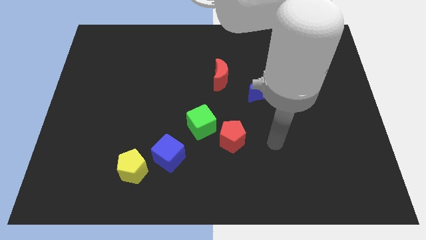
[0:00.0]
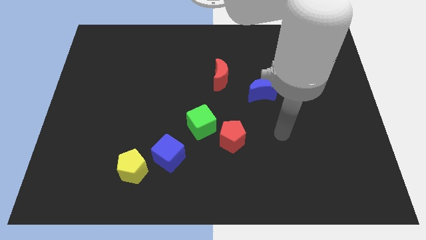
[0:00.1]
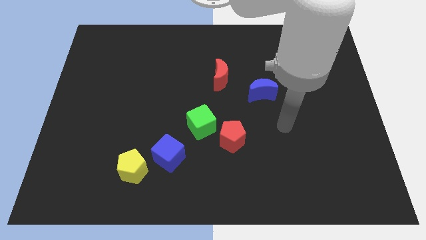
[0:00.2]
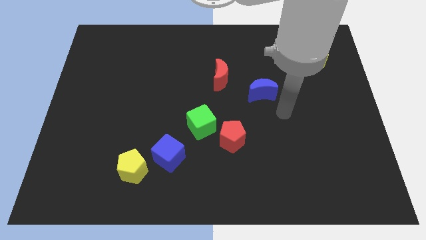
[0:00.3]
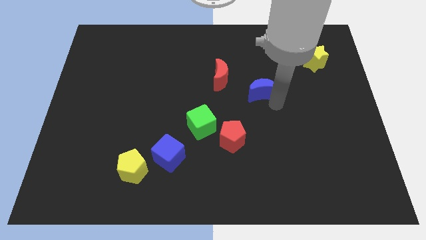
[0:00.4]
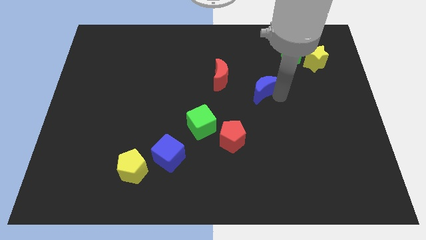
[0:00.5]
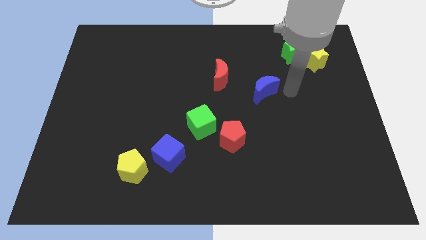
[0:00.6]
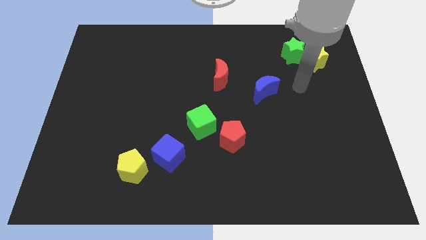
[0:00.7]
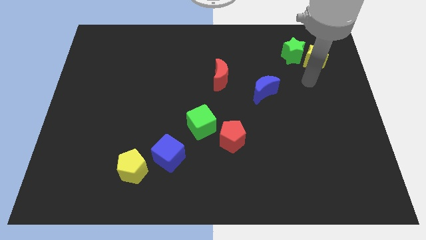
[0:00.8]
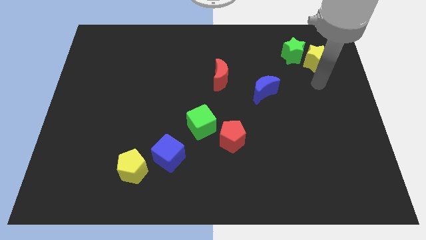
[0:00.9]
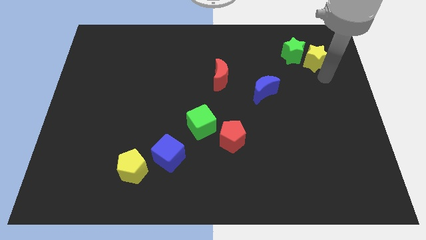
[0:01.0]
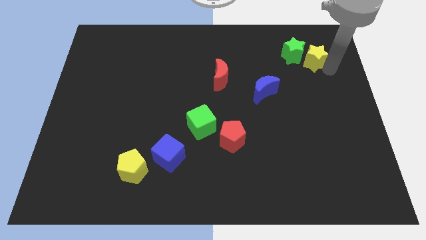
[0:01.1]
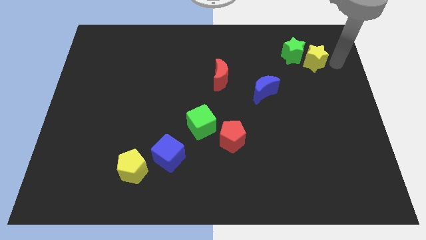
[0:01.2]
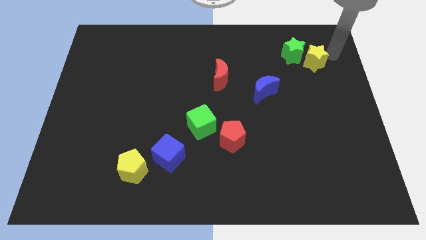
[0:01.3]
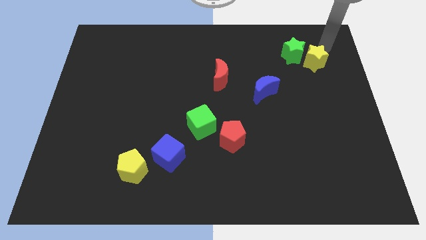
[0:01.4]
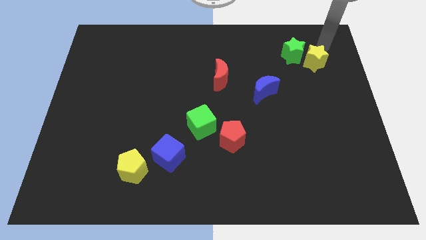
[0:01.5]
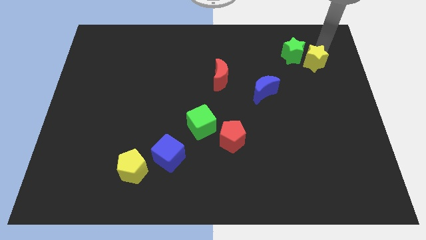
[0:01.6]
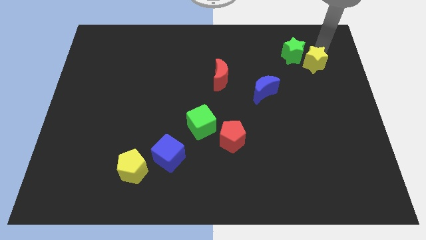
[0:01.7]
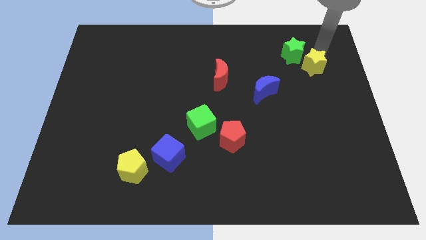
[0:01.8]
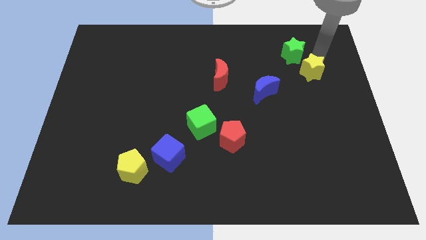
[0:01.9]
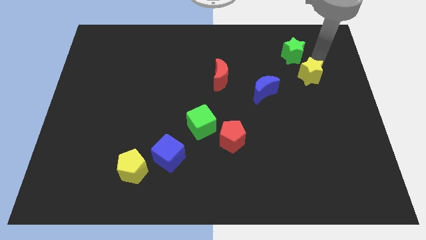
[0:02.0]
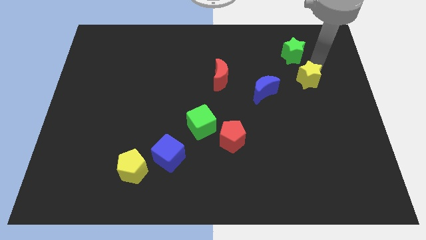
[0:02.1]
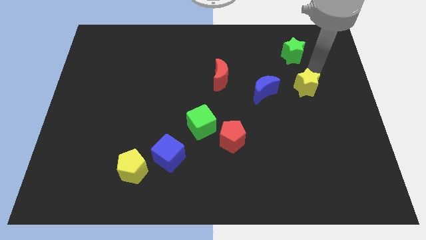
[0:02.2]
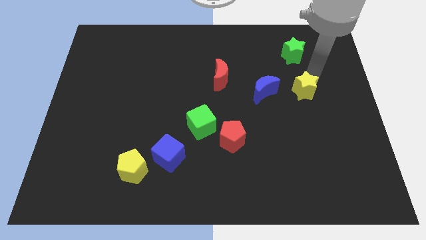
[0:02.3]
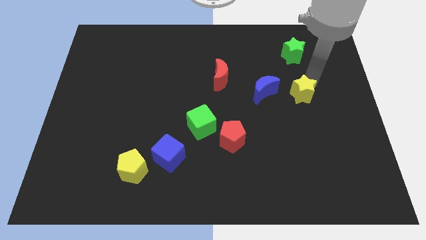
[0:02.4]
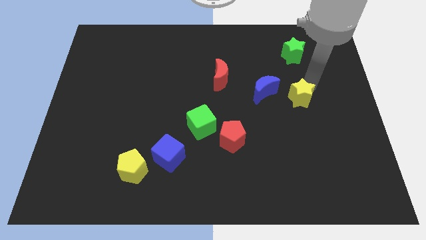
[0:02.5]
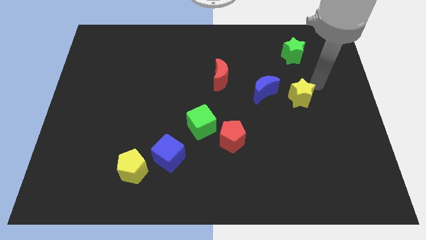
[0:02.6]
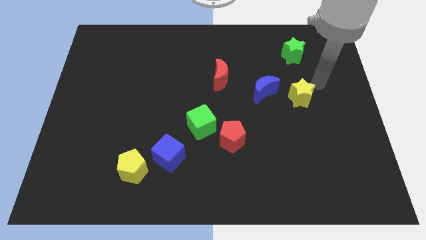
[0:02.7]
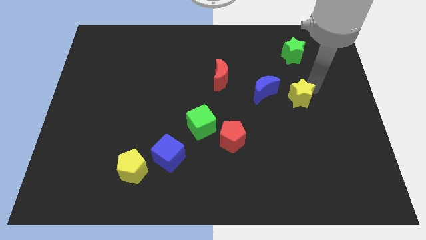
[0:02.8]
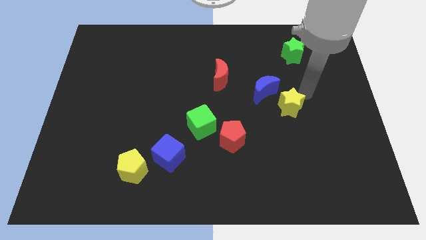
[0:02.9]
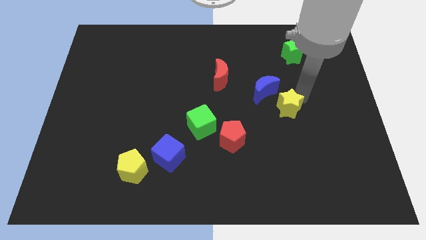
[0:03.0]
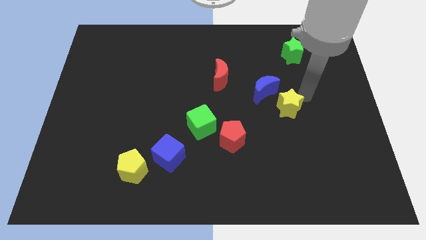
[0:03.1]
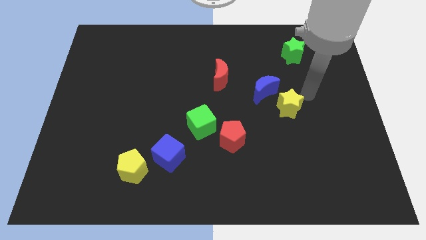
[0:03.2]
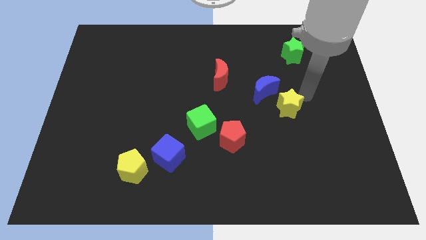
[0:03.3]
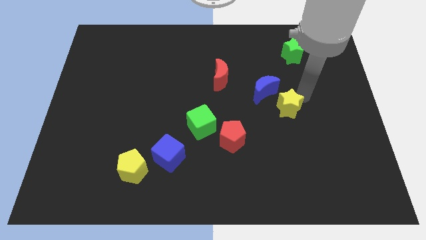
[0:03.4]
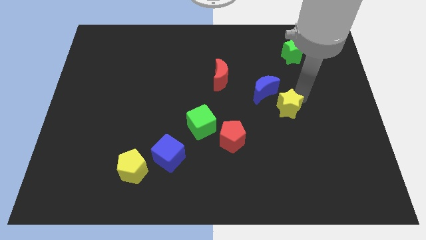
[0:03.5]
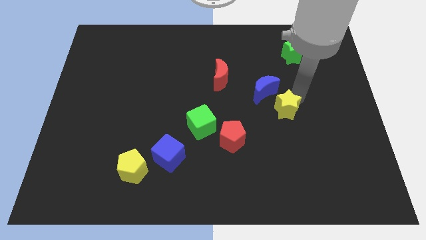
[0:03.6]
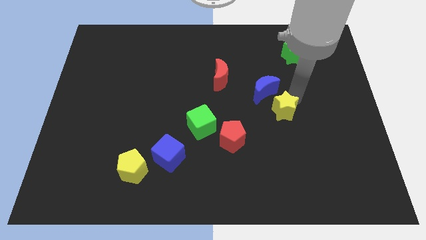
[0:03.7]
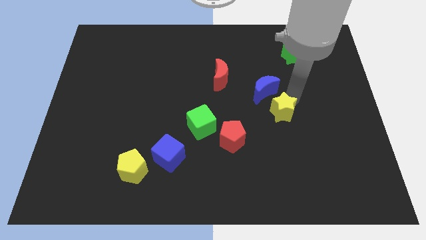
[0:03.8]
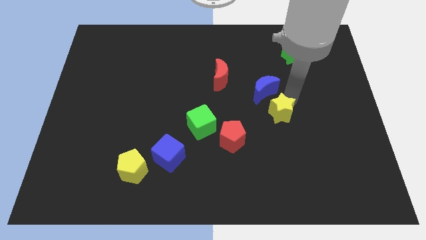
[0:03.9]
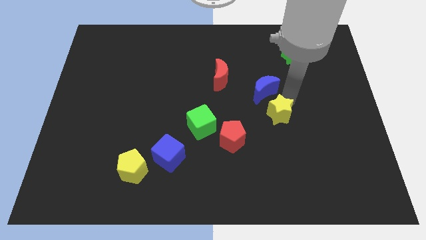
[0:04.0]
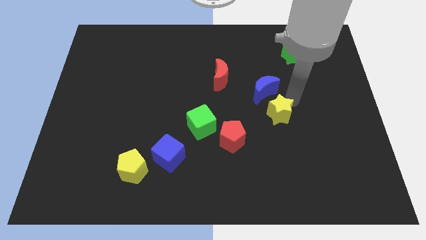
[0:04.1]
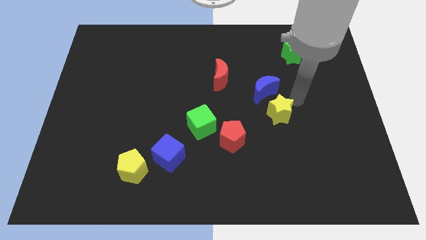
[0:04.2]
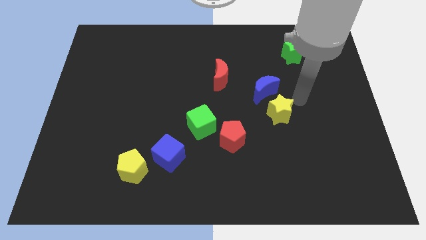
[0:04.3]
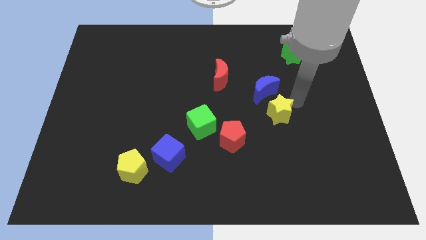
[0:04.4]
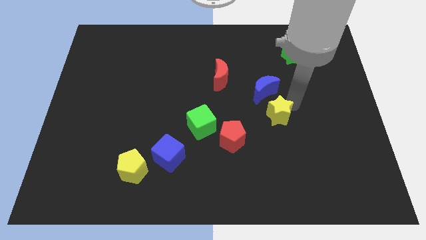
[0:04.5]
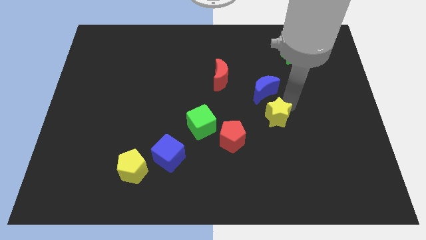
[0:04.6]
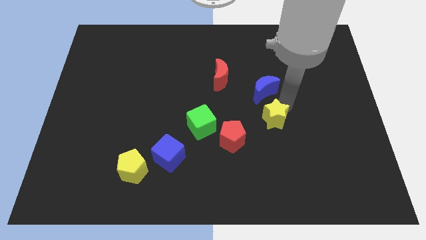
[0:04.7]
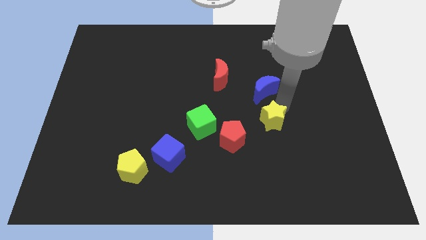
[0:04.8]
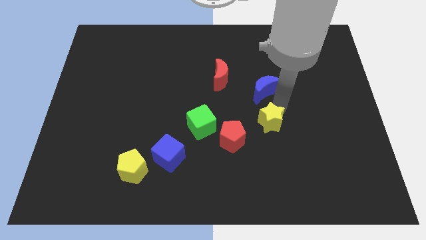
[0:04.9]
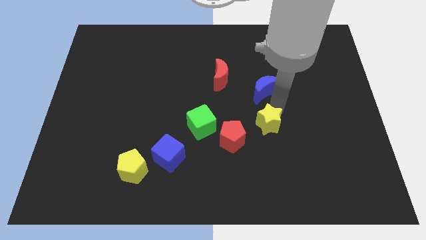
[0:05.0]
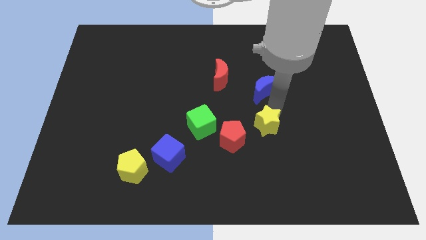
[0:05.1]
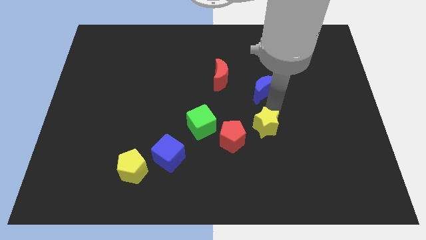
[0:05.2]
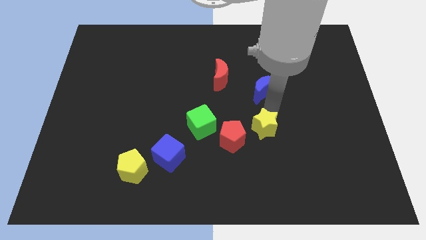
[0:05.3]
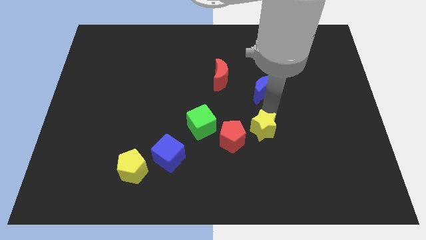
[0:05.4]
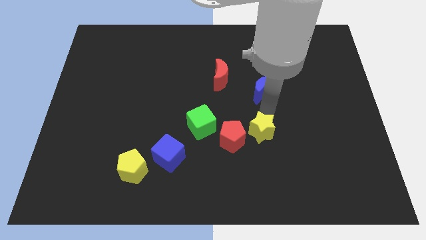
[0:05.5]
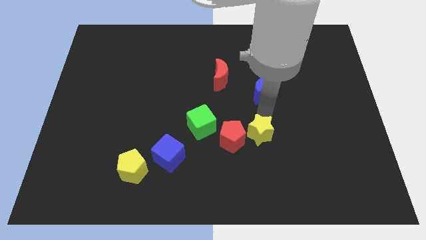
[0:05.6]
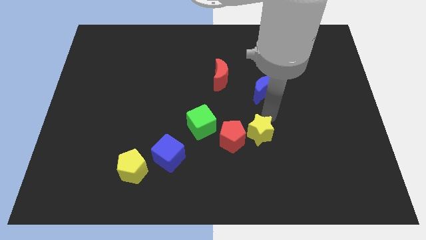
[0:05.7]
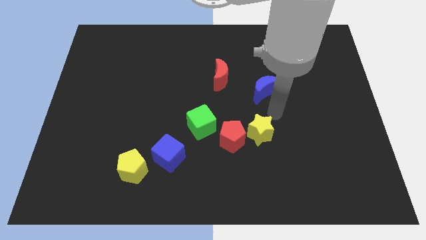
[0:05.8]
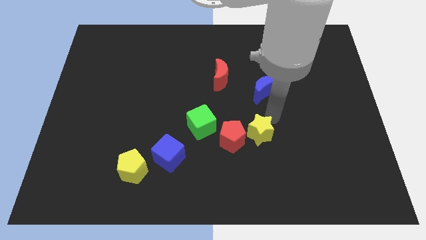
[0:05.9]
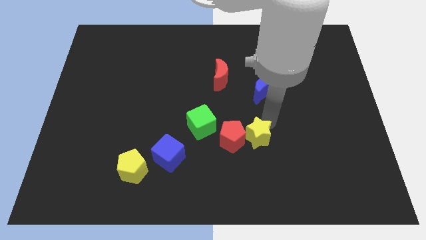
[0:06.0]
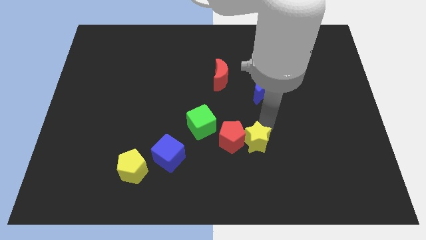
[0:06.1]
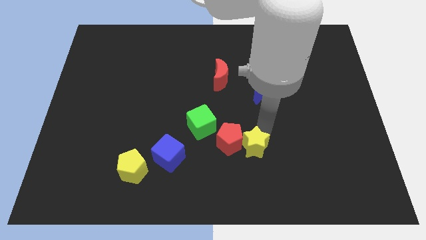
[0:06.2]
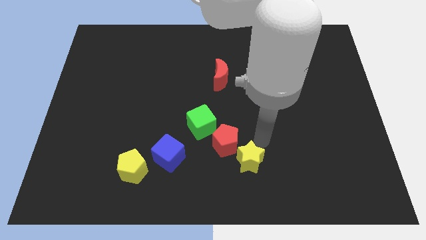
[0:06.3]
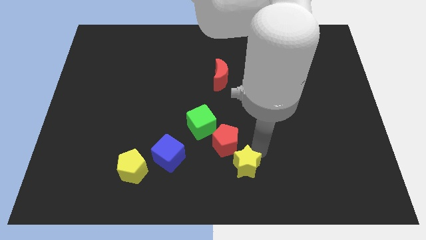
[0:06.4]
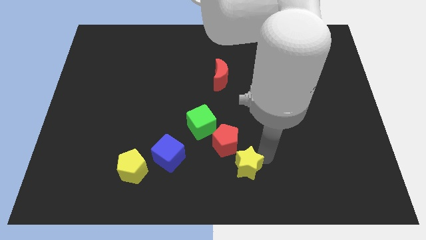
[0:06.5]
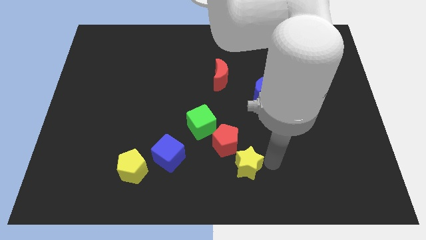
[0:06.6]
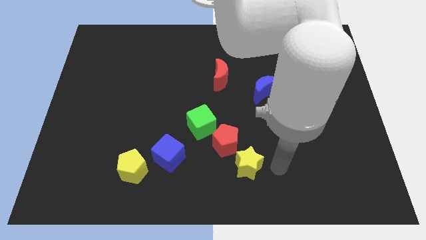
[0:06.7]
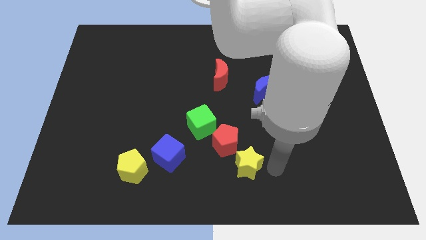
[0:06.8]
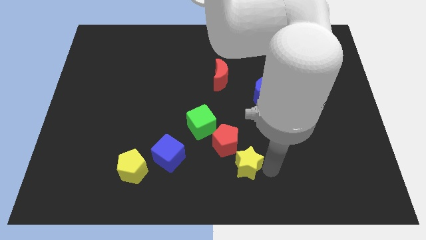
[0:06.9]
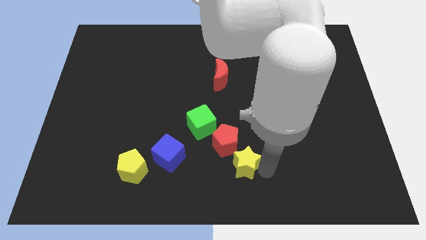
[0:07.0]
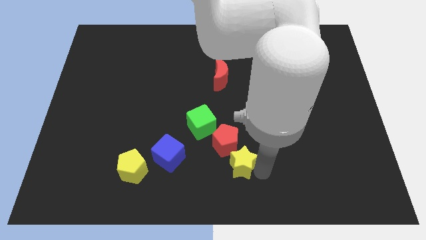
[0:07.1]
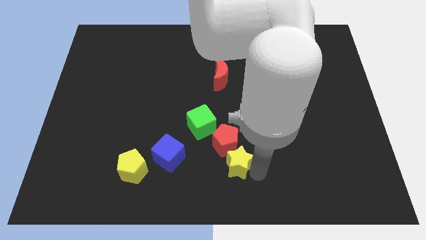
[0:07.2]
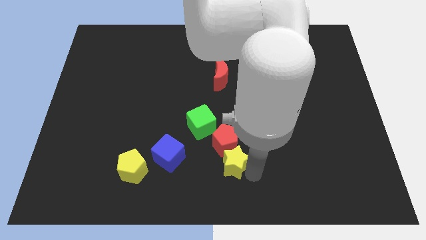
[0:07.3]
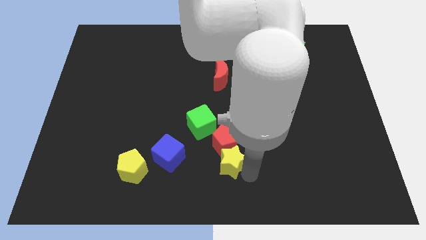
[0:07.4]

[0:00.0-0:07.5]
move the yellow star to the bottom left of the red pentagon
